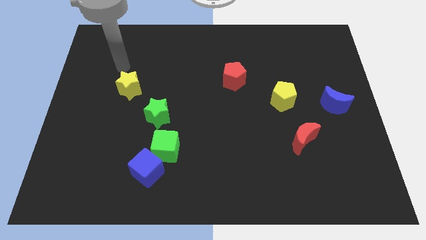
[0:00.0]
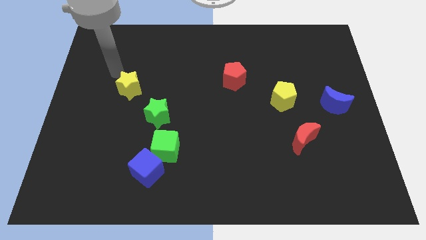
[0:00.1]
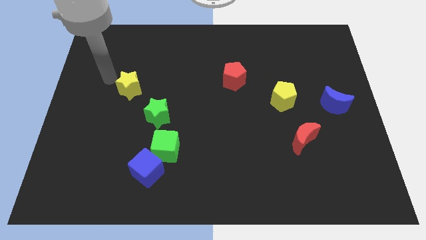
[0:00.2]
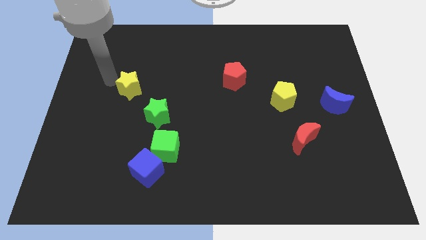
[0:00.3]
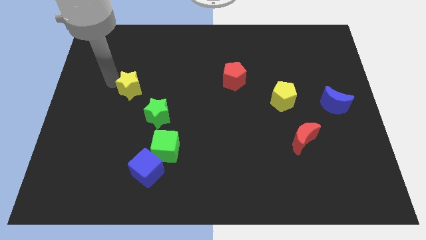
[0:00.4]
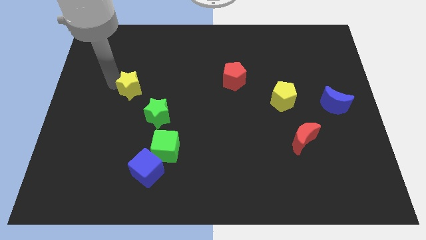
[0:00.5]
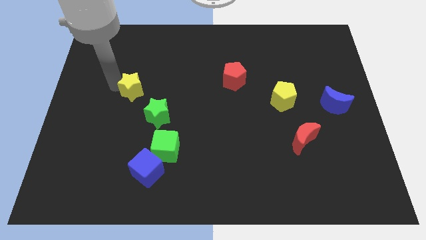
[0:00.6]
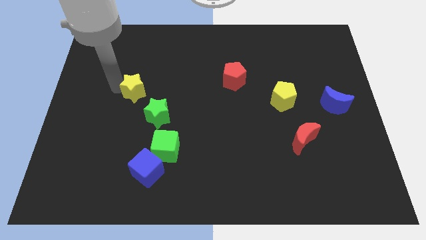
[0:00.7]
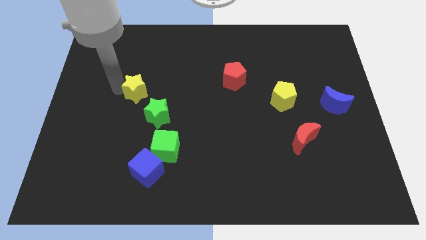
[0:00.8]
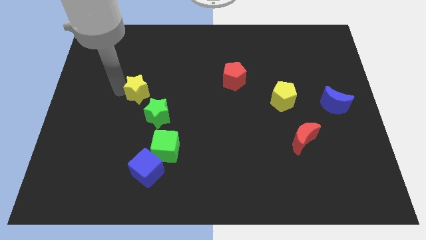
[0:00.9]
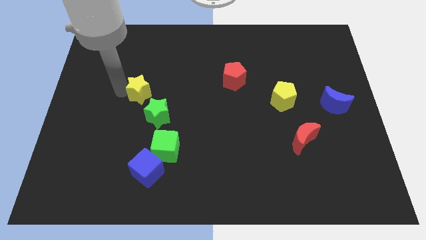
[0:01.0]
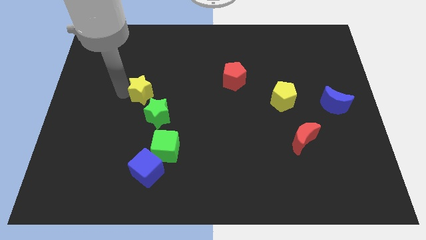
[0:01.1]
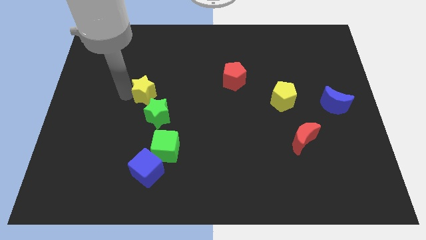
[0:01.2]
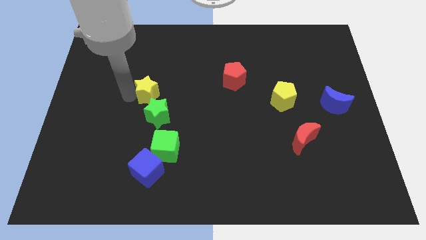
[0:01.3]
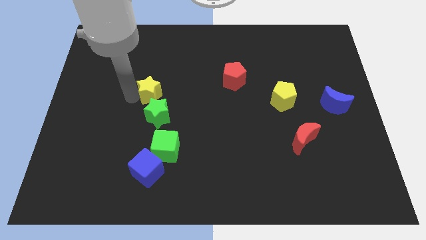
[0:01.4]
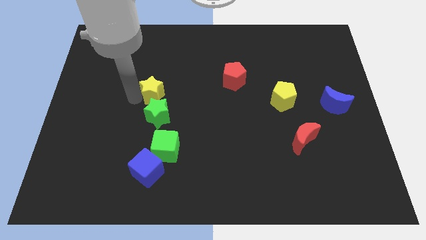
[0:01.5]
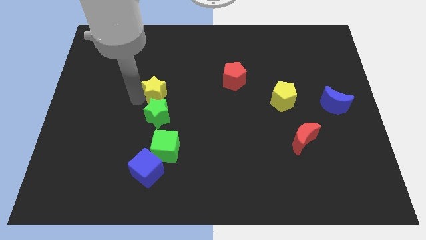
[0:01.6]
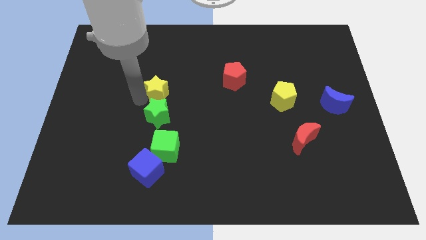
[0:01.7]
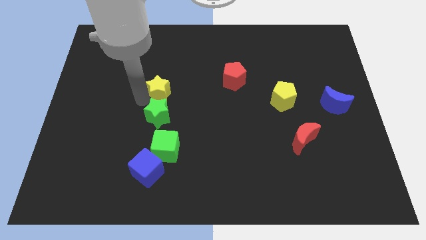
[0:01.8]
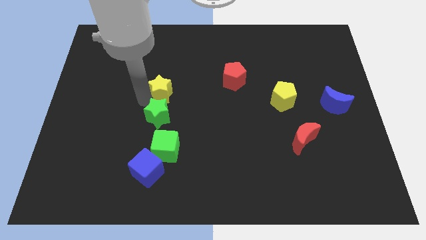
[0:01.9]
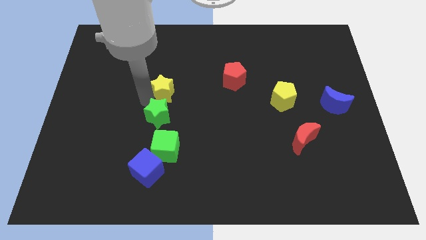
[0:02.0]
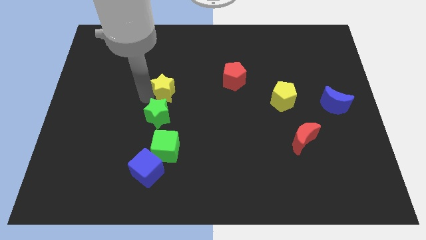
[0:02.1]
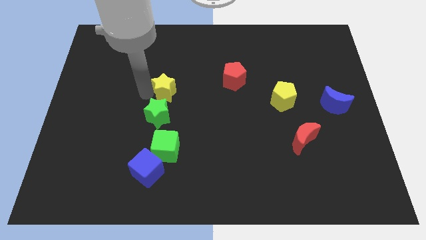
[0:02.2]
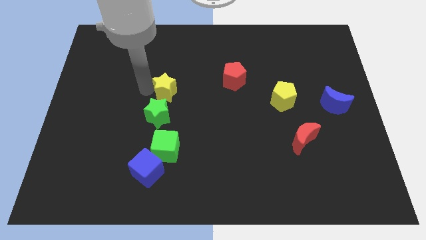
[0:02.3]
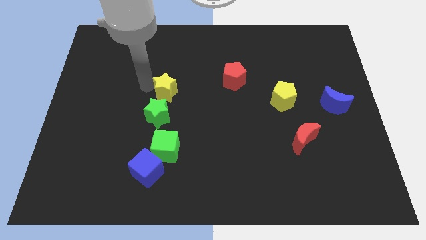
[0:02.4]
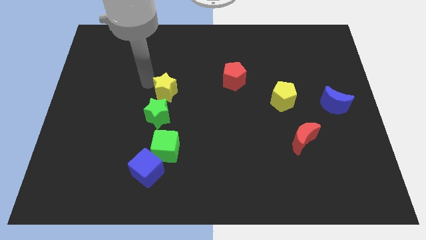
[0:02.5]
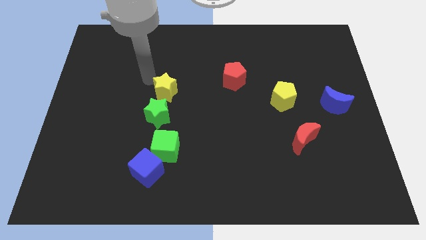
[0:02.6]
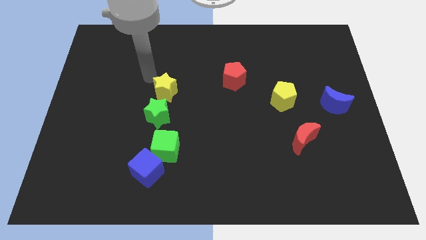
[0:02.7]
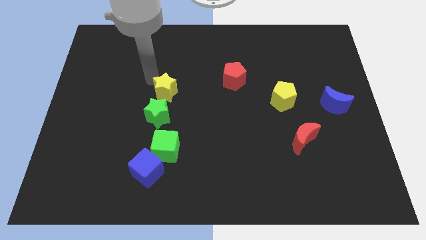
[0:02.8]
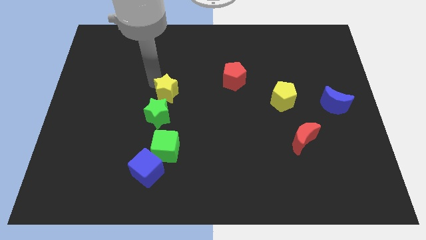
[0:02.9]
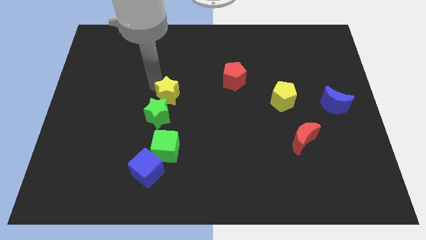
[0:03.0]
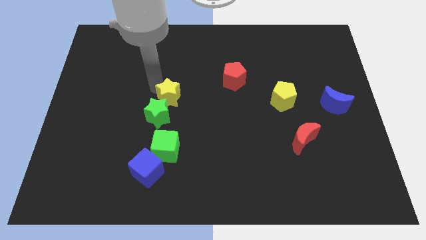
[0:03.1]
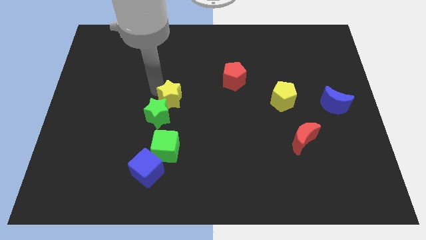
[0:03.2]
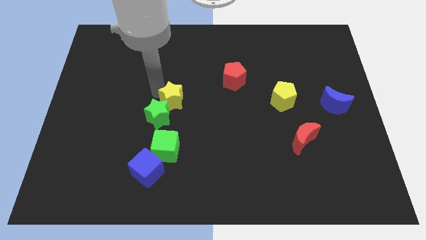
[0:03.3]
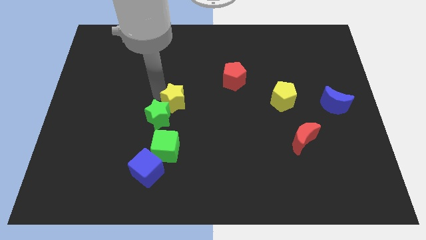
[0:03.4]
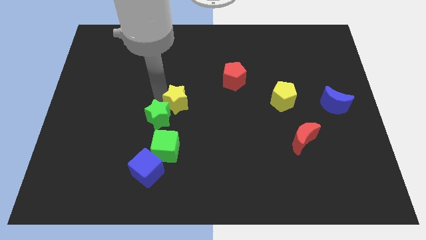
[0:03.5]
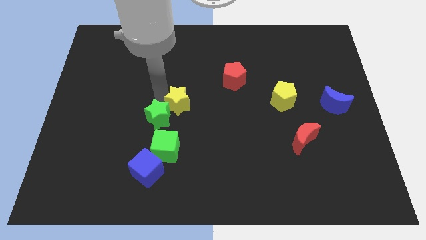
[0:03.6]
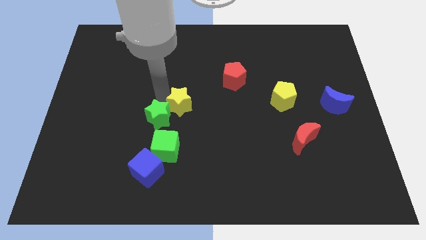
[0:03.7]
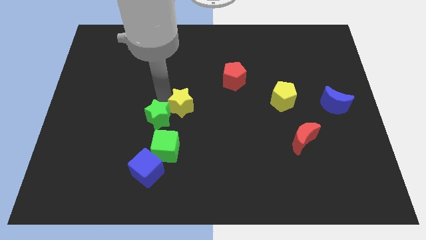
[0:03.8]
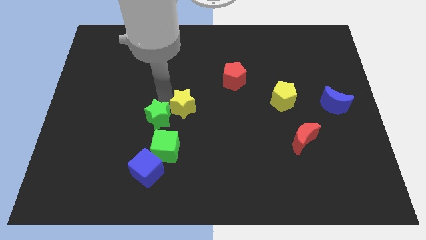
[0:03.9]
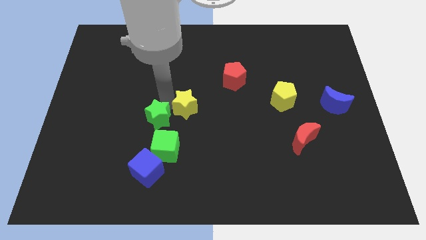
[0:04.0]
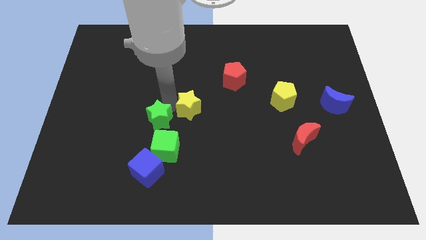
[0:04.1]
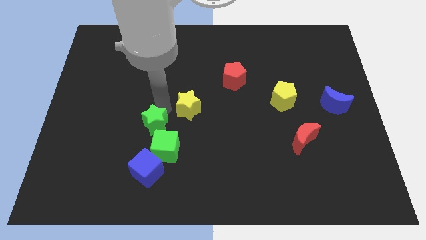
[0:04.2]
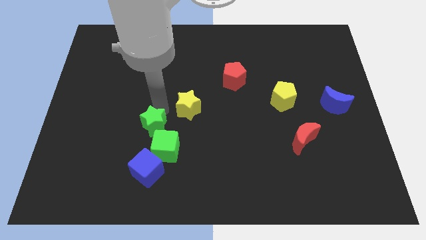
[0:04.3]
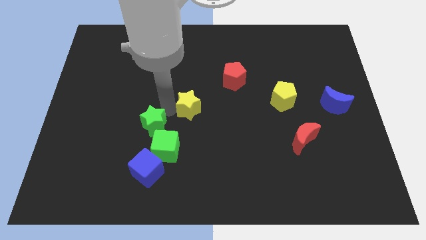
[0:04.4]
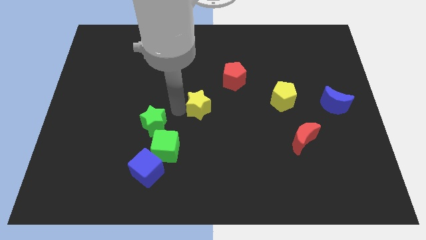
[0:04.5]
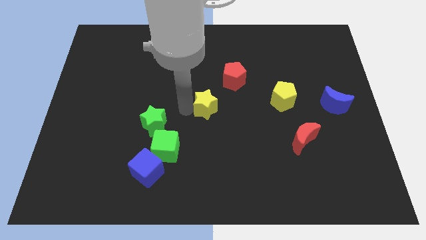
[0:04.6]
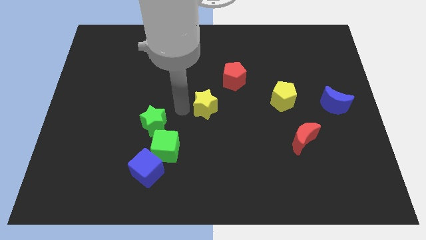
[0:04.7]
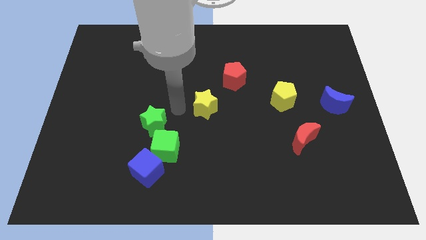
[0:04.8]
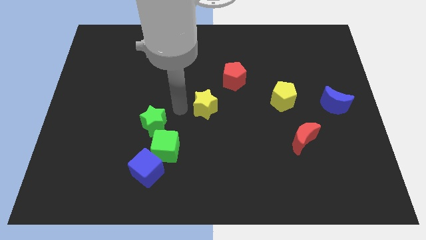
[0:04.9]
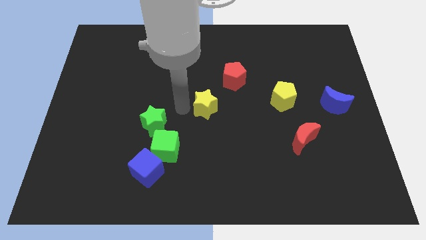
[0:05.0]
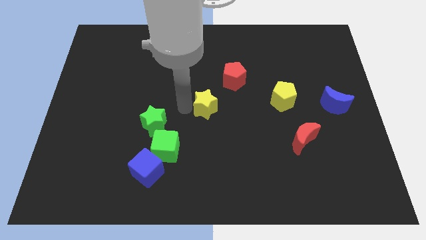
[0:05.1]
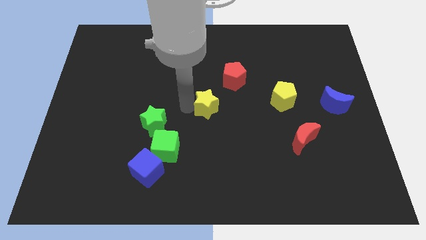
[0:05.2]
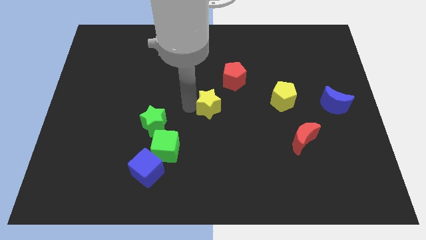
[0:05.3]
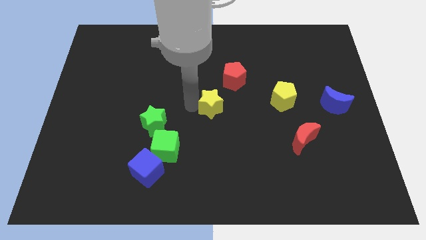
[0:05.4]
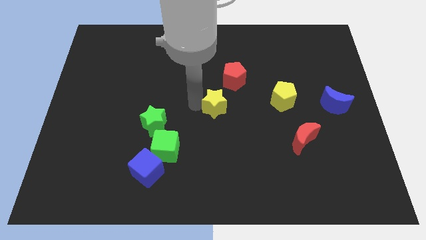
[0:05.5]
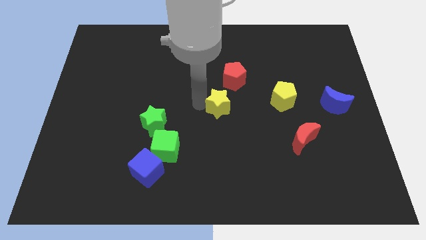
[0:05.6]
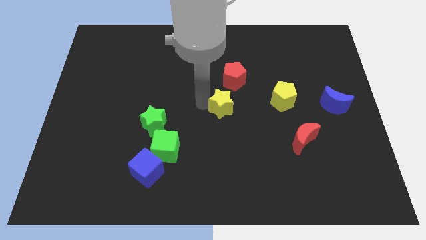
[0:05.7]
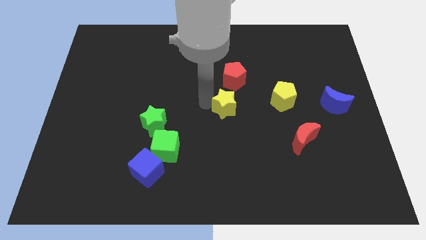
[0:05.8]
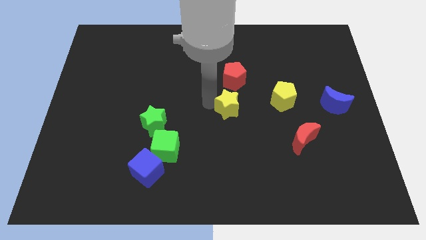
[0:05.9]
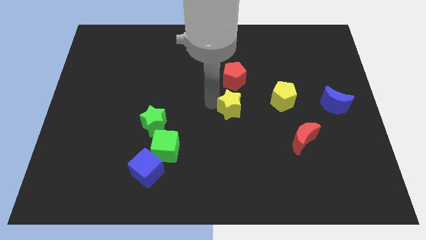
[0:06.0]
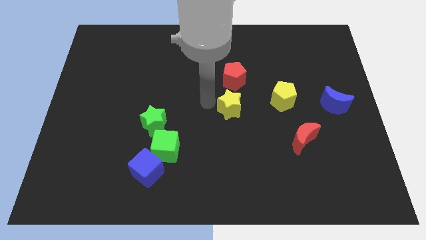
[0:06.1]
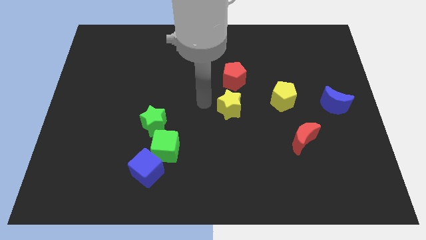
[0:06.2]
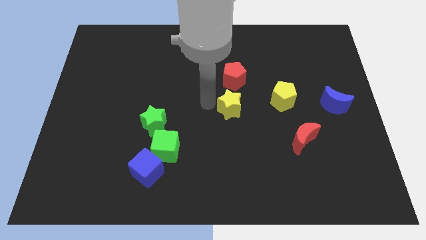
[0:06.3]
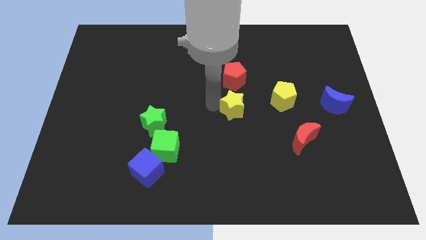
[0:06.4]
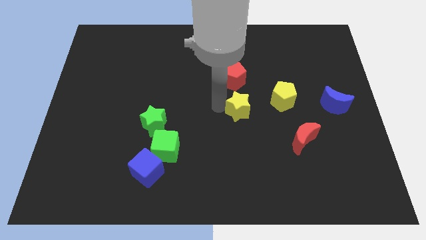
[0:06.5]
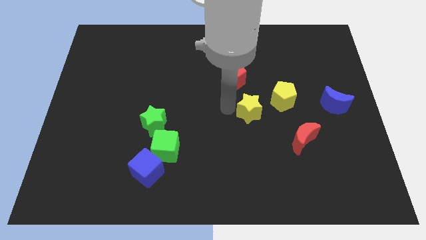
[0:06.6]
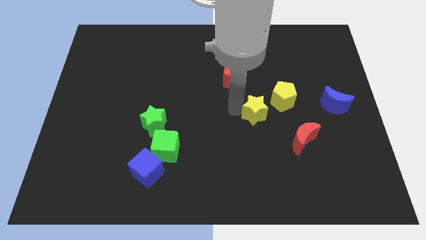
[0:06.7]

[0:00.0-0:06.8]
push the yellow star to the top left side of the red moon
